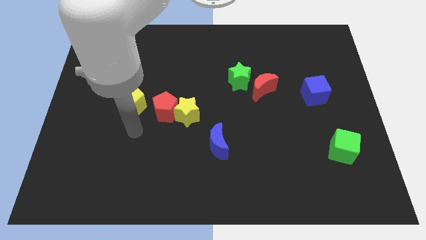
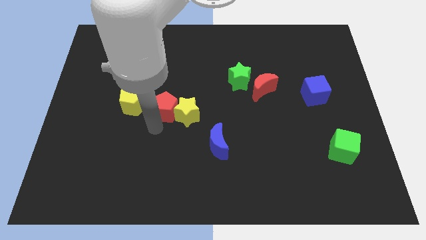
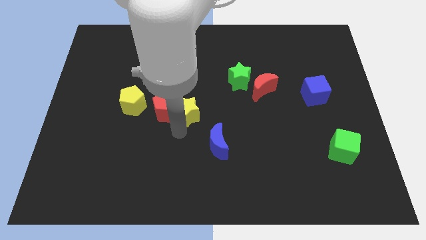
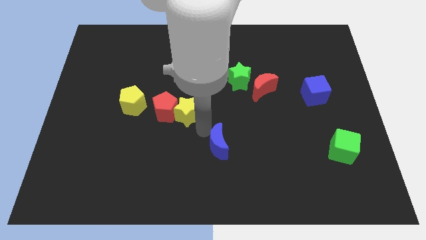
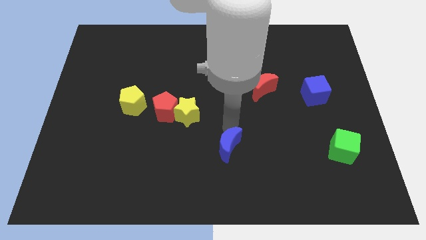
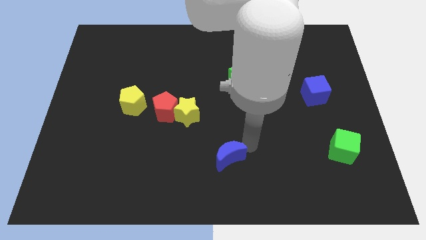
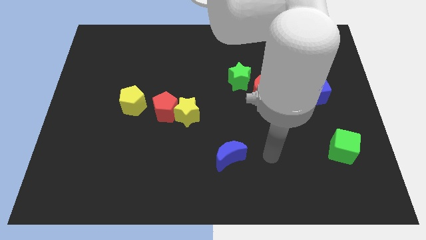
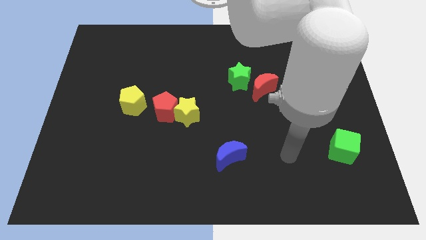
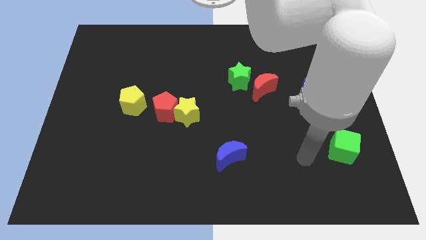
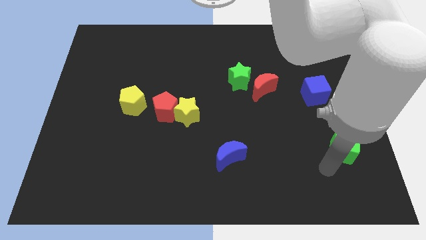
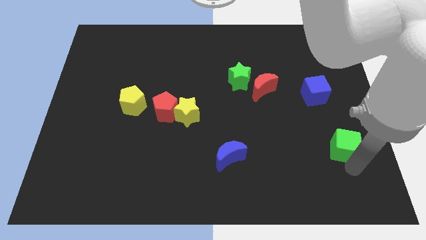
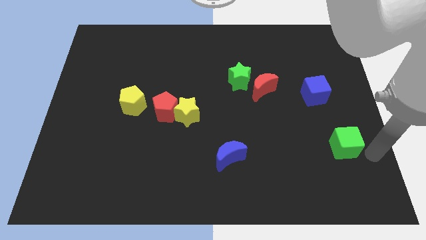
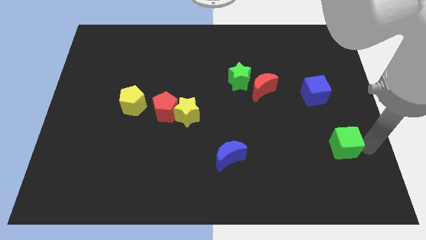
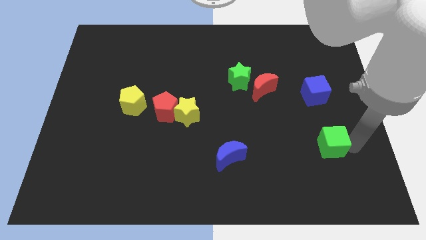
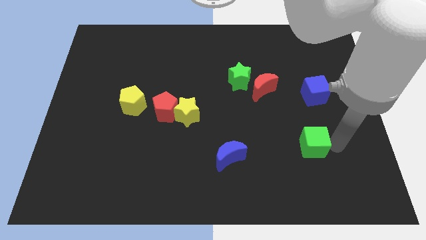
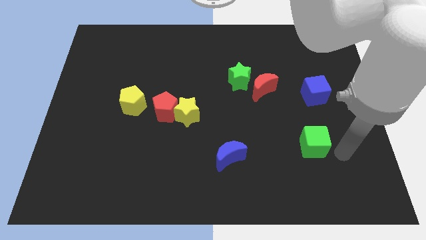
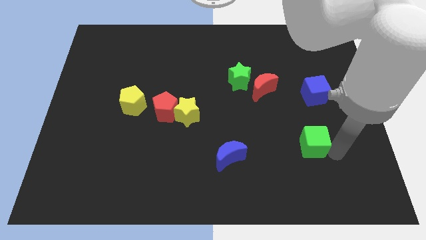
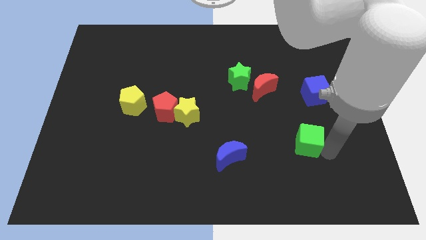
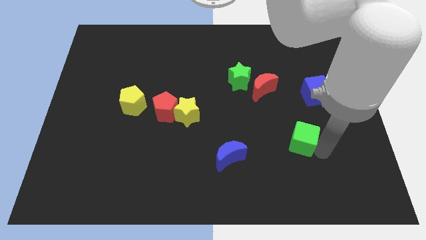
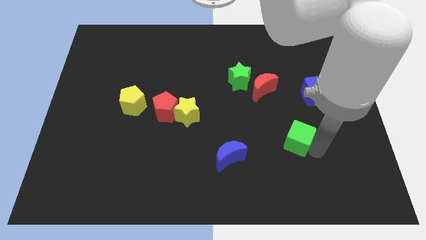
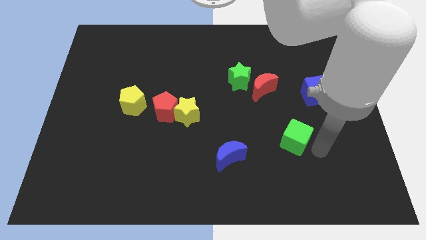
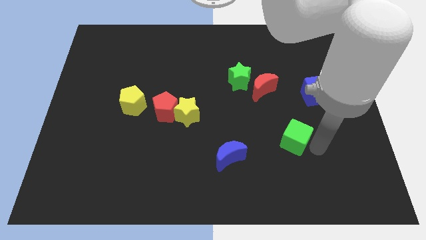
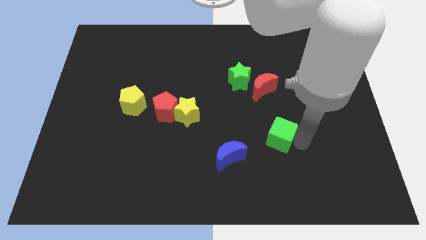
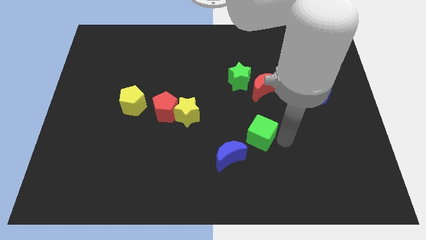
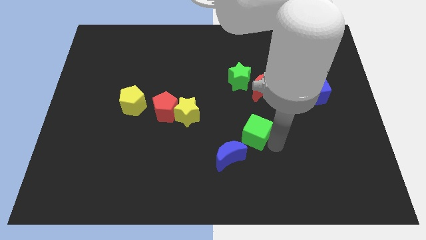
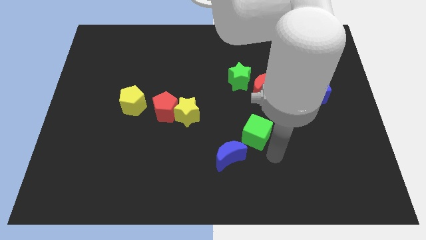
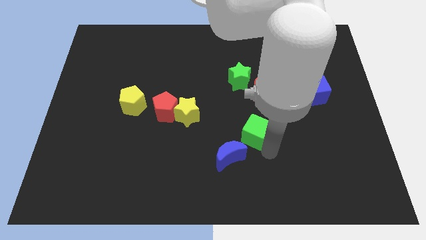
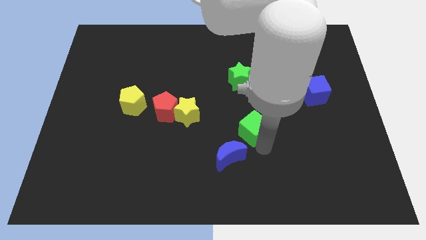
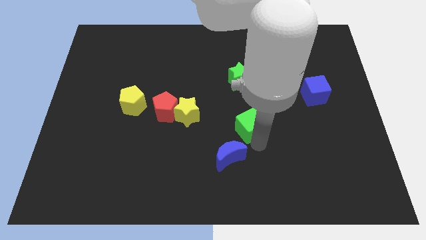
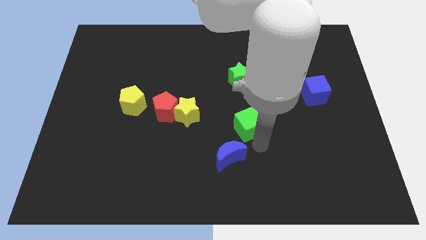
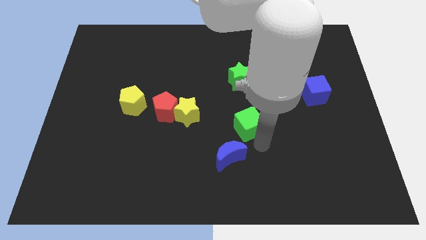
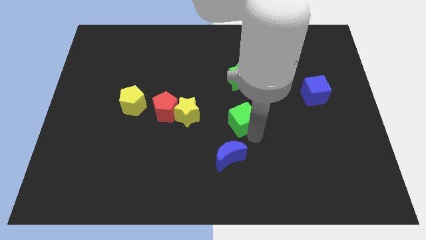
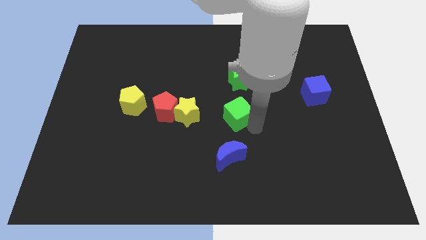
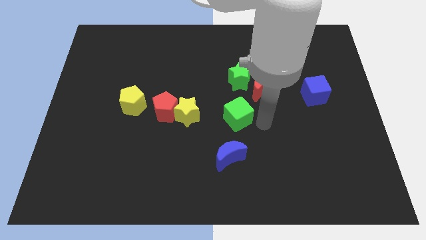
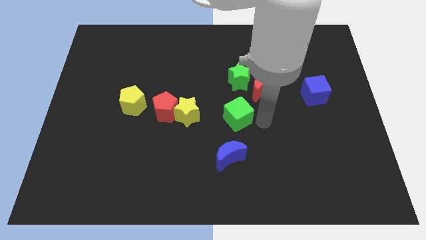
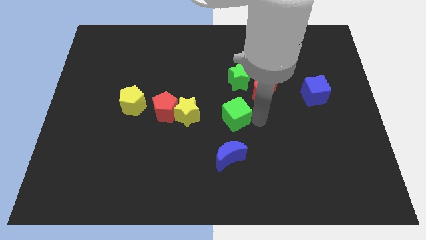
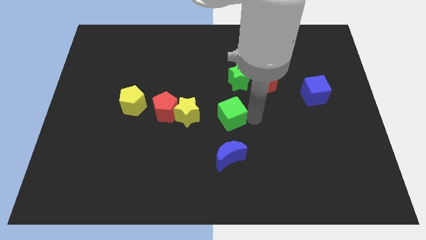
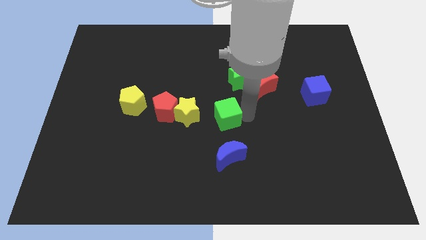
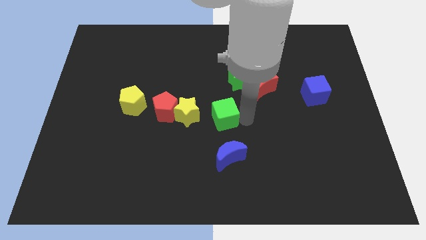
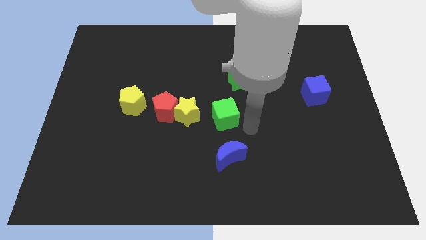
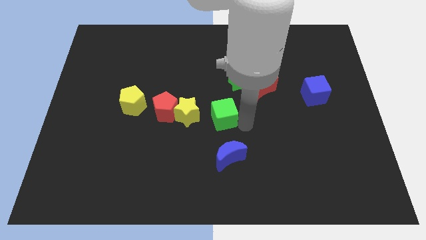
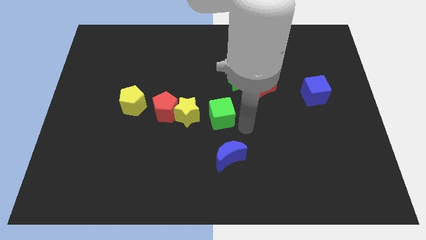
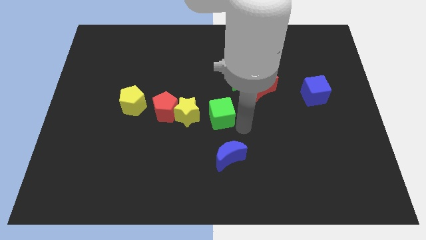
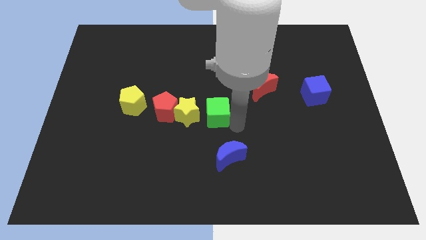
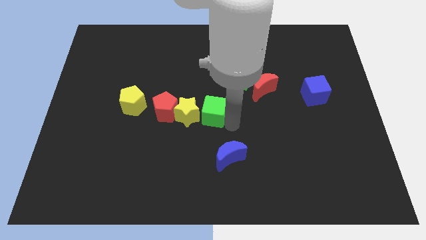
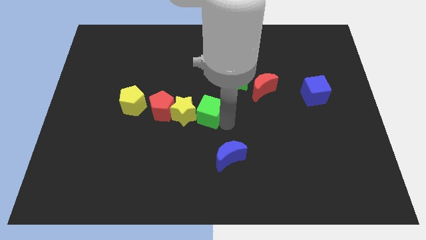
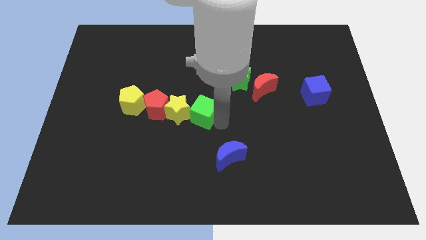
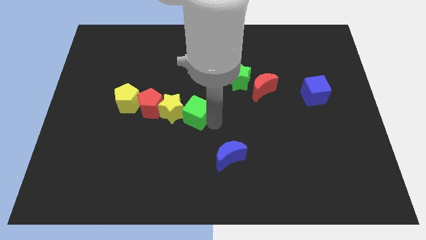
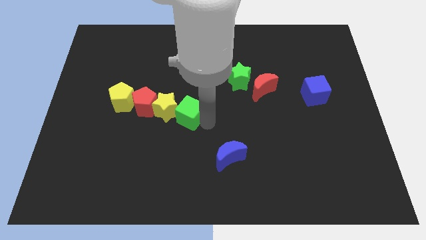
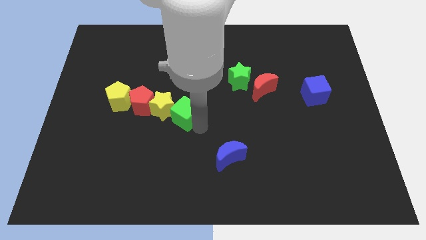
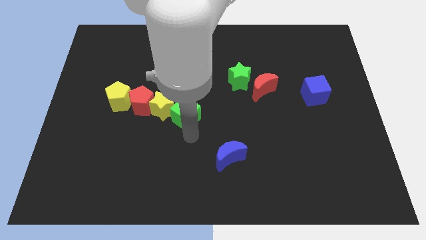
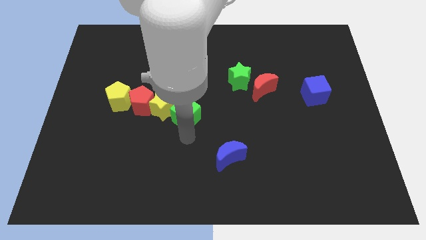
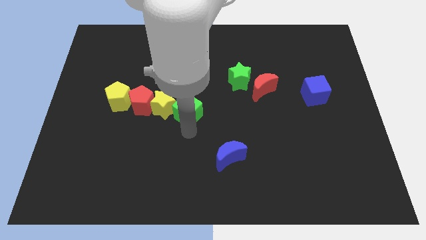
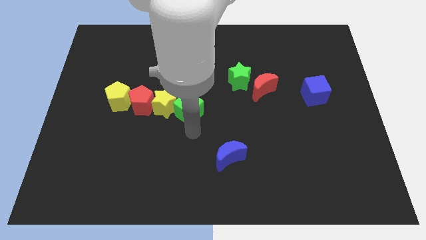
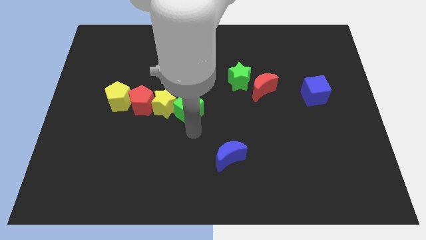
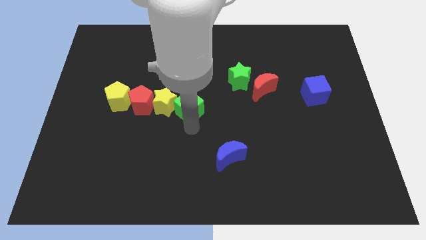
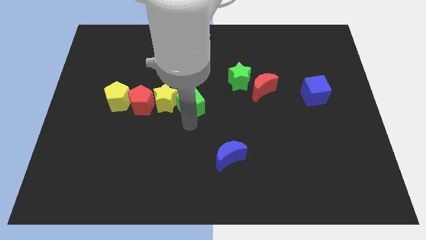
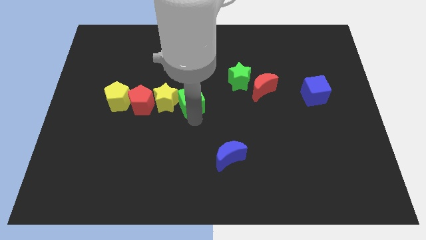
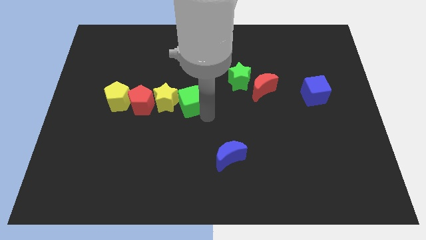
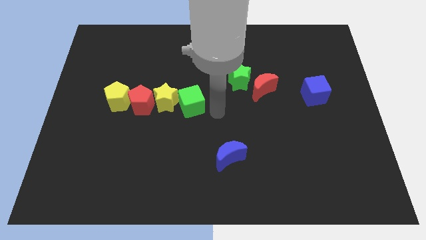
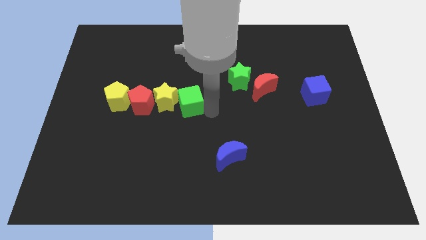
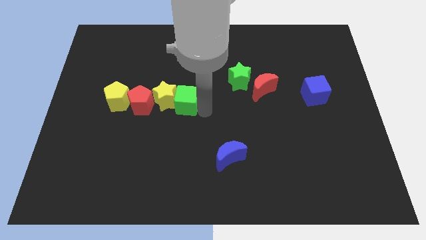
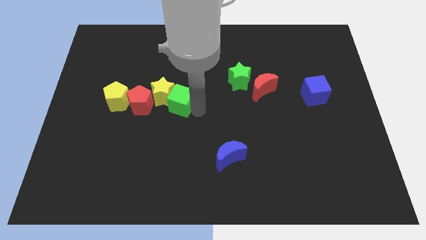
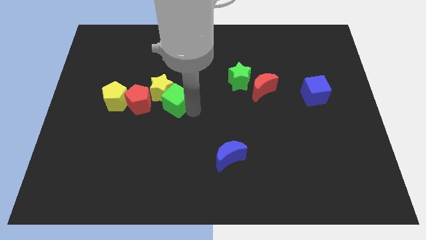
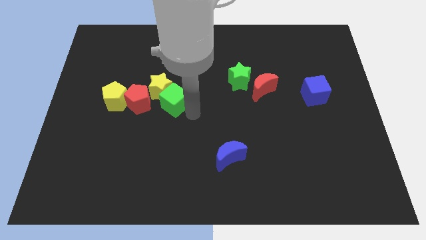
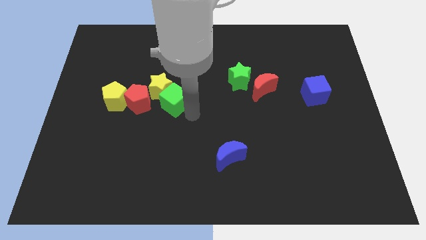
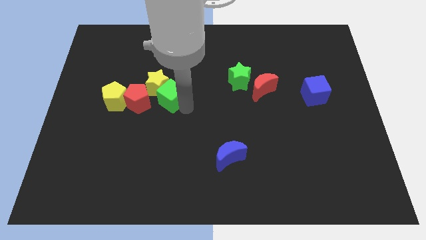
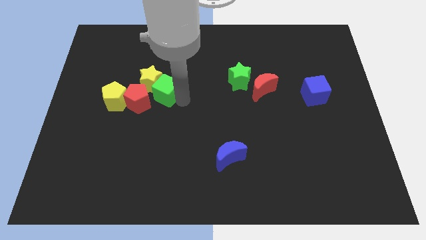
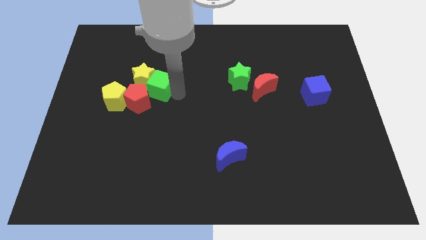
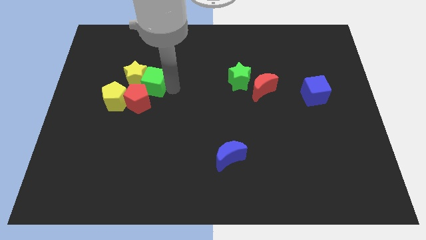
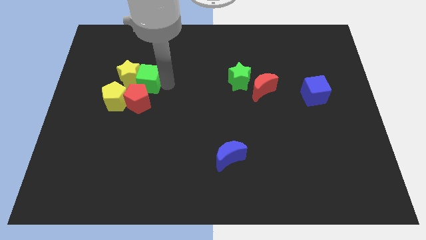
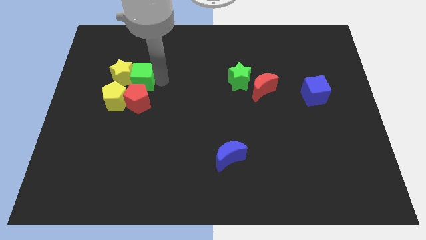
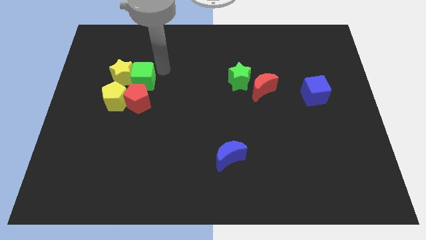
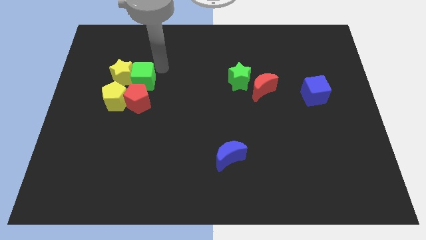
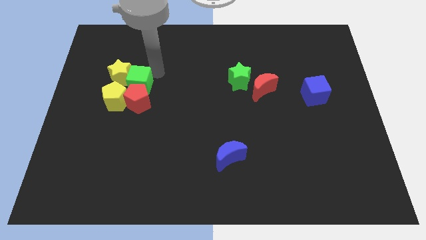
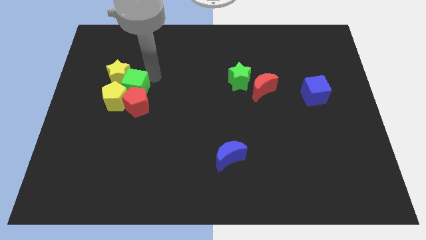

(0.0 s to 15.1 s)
move the green cube close to the yellow pentagon
